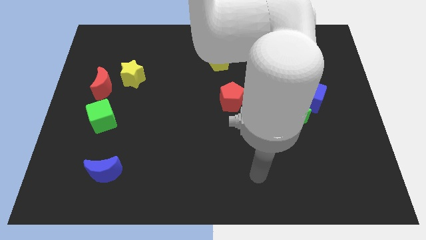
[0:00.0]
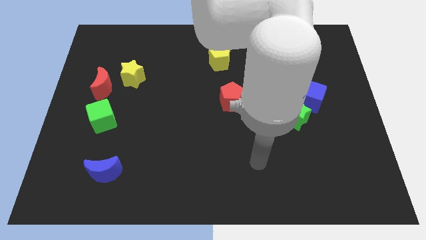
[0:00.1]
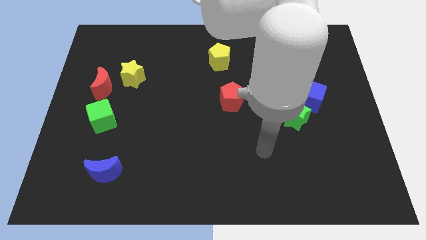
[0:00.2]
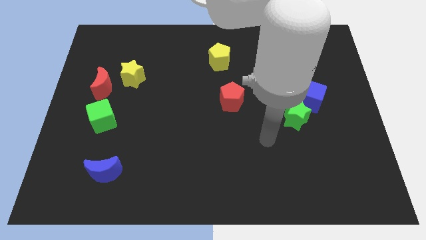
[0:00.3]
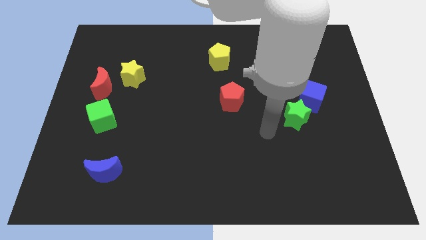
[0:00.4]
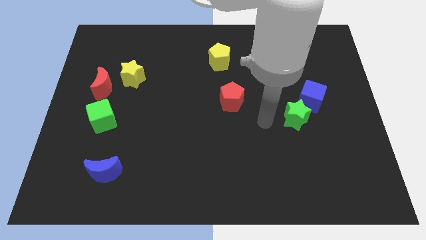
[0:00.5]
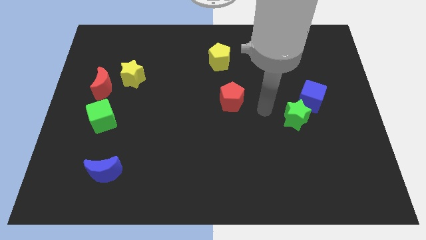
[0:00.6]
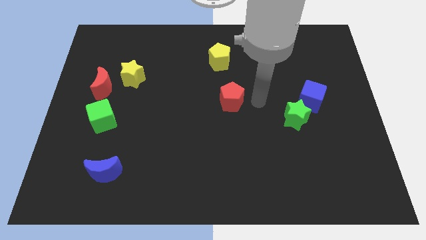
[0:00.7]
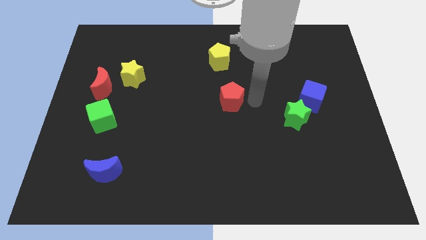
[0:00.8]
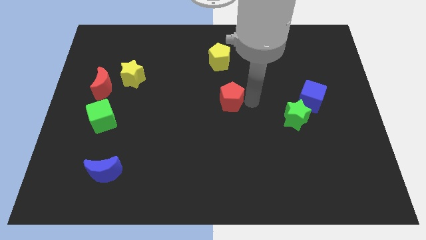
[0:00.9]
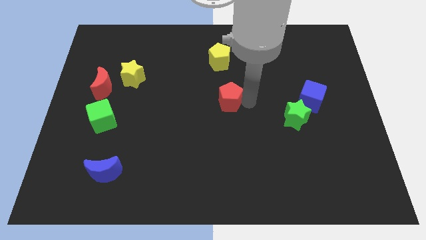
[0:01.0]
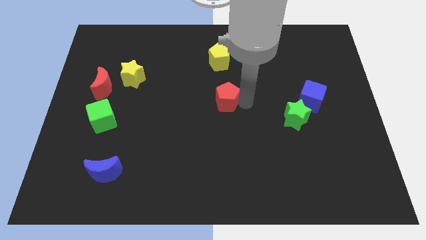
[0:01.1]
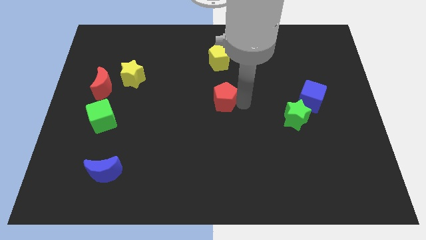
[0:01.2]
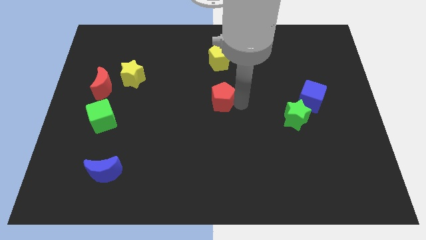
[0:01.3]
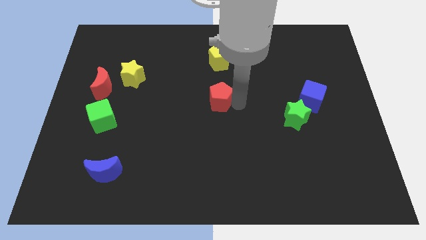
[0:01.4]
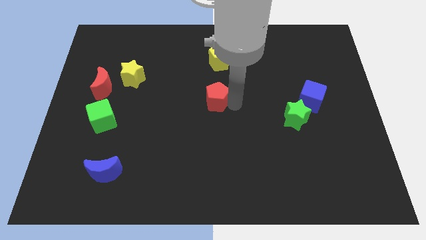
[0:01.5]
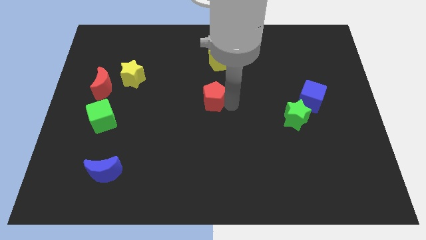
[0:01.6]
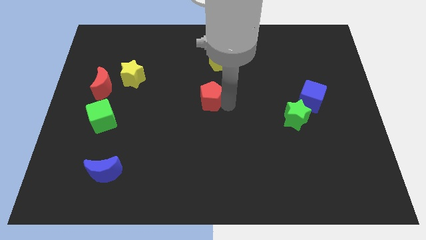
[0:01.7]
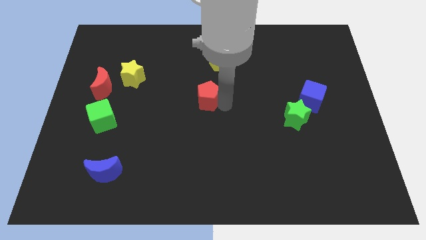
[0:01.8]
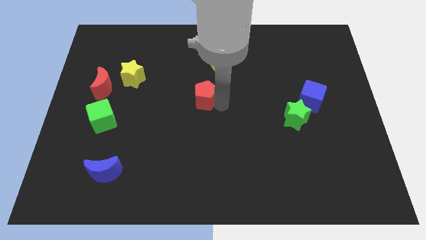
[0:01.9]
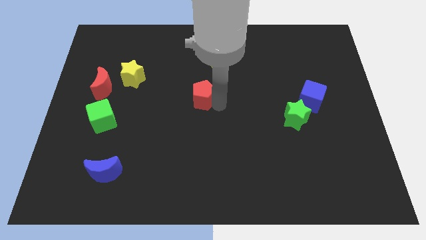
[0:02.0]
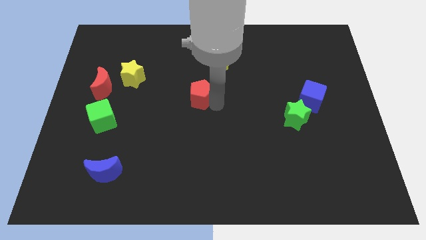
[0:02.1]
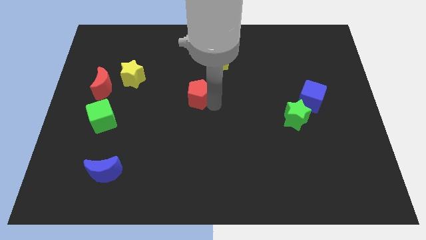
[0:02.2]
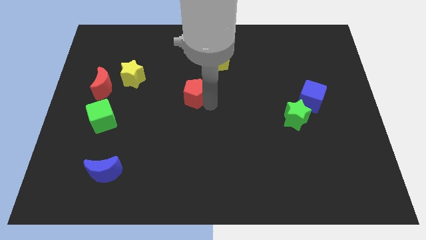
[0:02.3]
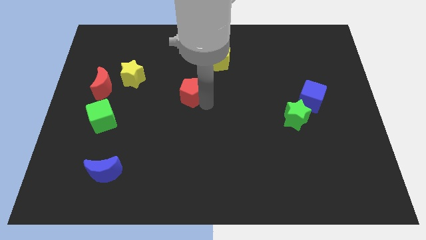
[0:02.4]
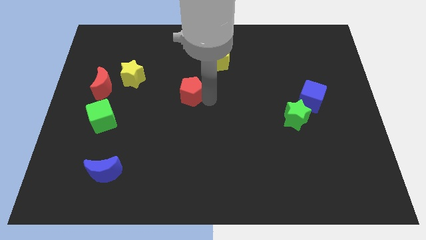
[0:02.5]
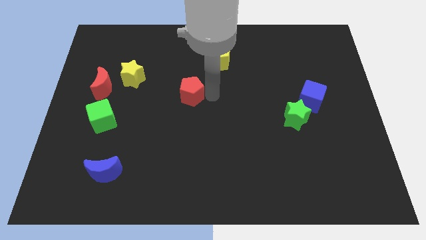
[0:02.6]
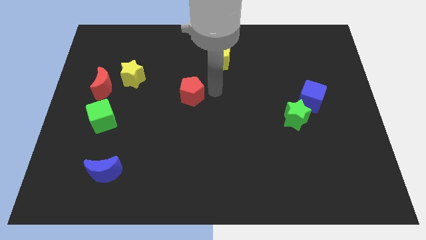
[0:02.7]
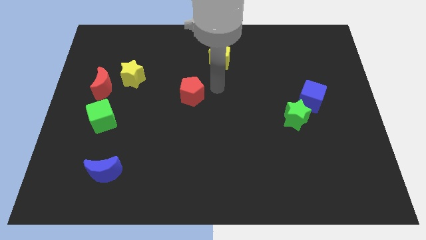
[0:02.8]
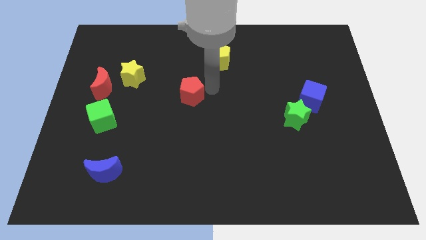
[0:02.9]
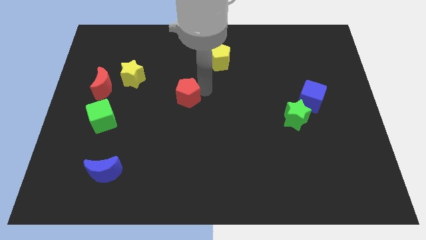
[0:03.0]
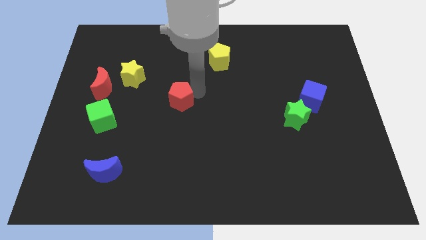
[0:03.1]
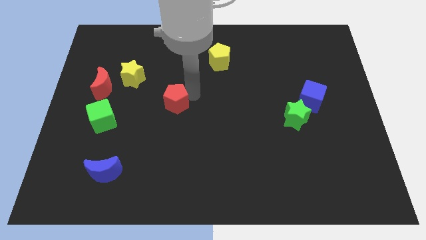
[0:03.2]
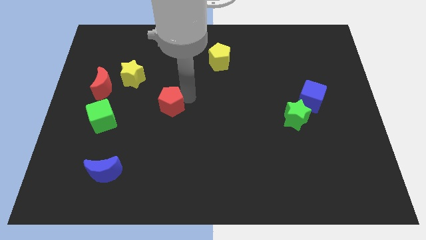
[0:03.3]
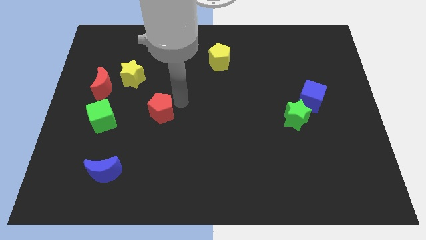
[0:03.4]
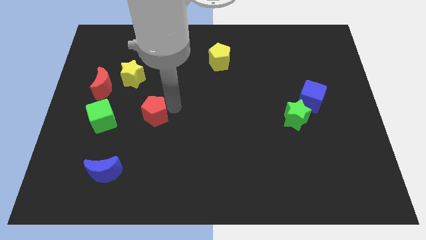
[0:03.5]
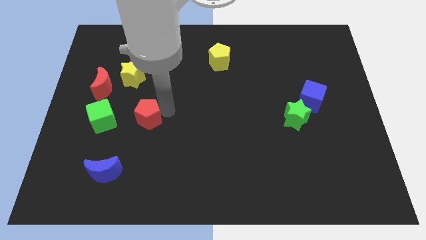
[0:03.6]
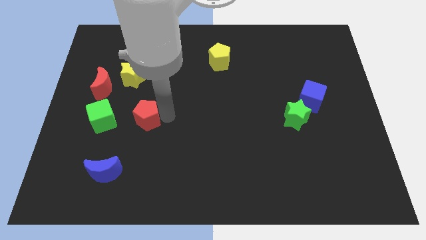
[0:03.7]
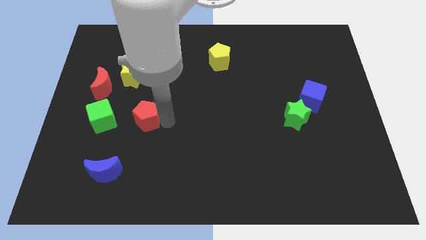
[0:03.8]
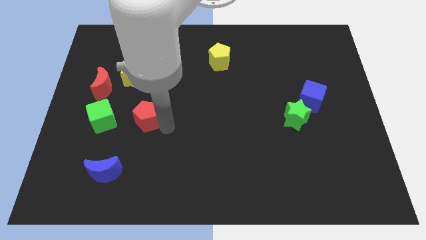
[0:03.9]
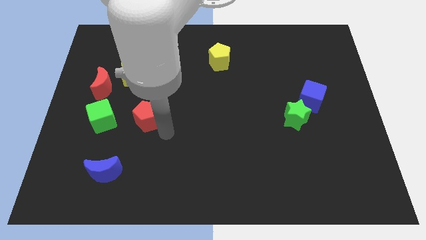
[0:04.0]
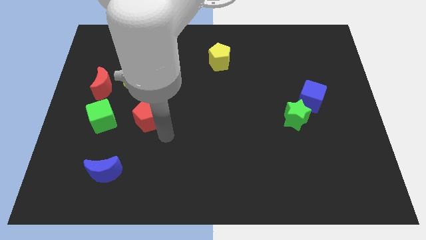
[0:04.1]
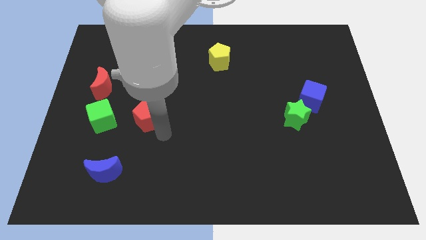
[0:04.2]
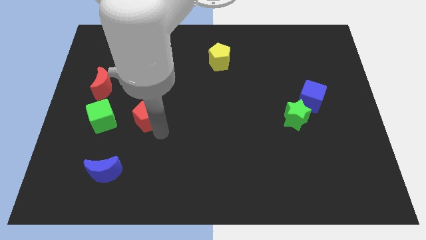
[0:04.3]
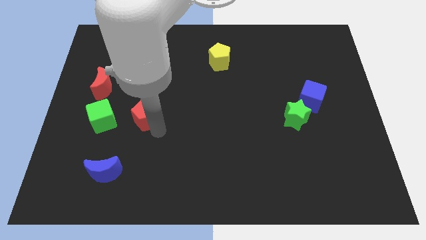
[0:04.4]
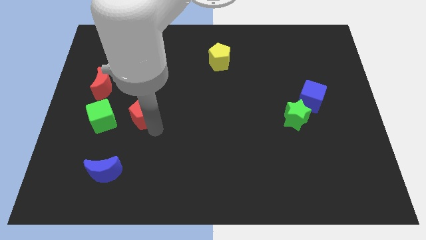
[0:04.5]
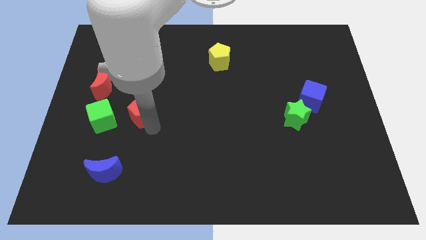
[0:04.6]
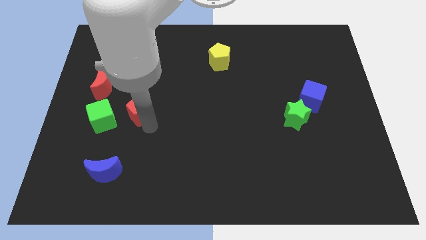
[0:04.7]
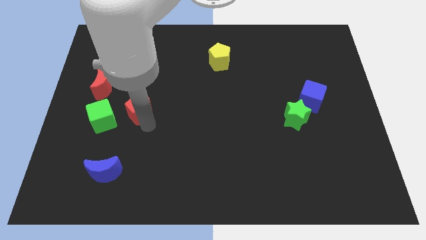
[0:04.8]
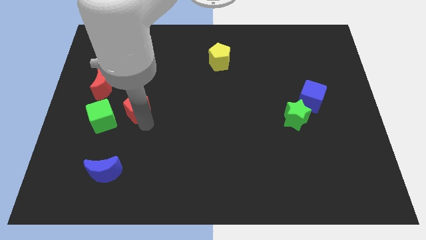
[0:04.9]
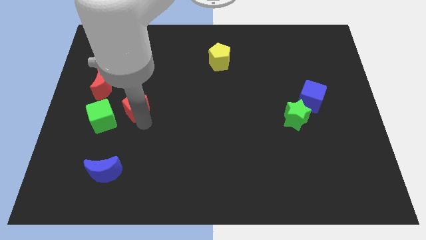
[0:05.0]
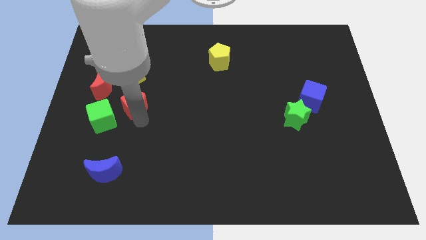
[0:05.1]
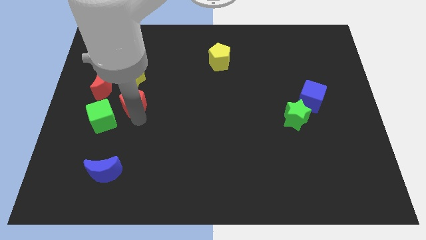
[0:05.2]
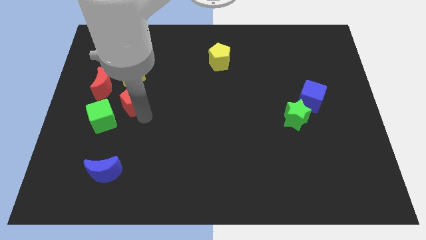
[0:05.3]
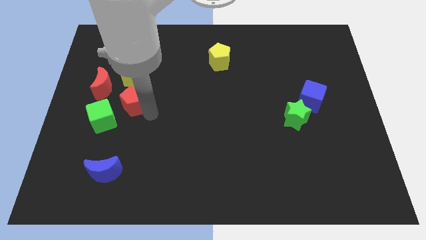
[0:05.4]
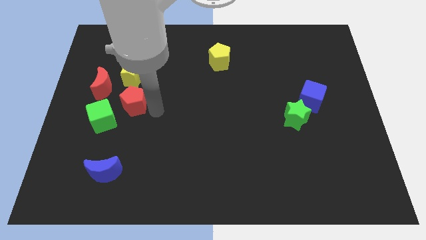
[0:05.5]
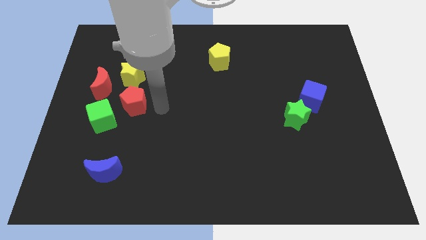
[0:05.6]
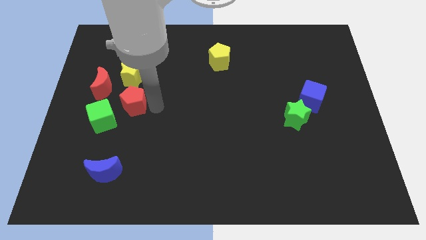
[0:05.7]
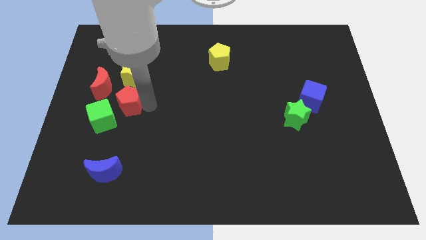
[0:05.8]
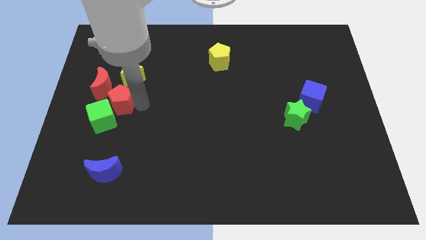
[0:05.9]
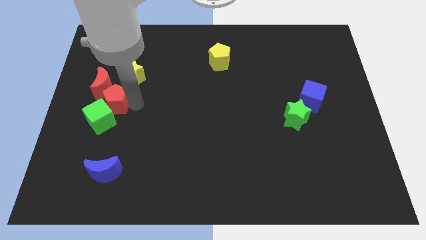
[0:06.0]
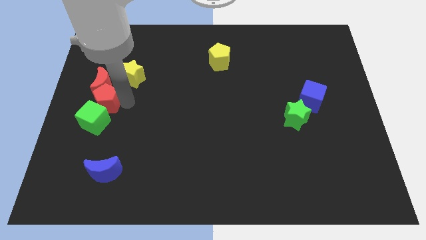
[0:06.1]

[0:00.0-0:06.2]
move the red pentagon to the left side of the board

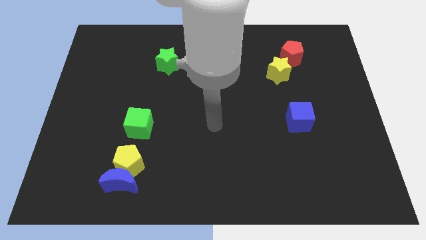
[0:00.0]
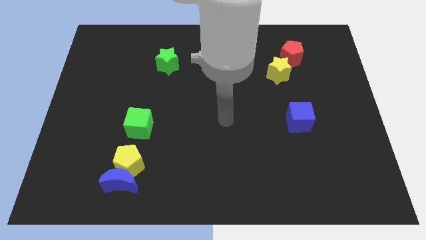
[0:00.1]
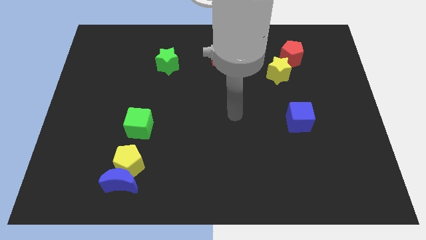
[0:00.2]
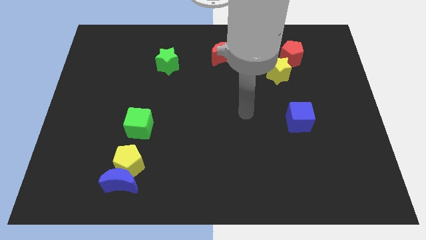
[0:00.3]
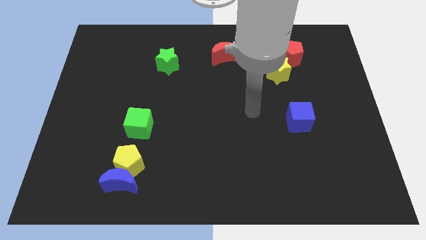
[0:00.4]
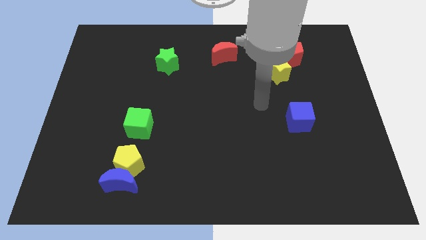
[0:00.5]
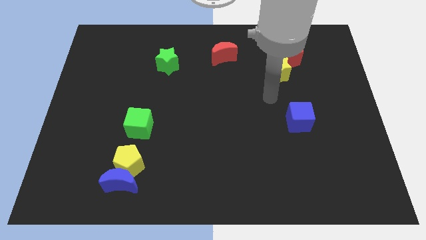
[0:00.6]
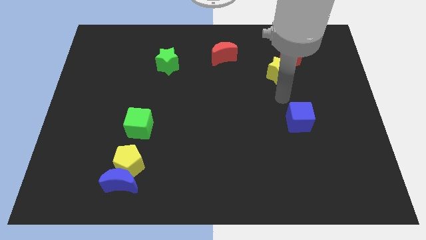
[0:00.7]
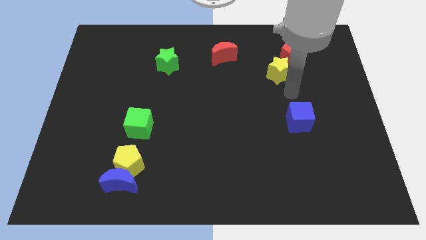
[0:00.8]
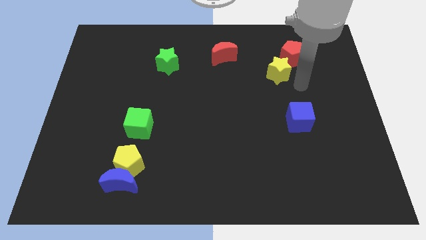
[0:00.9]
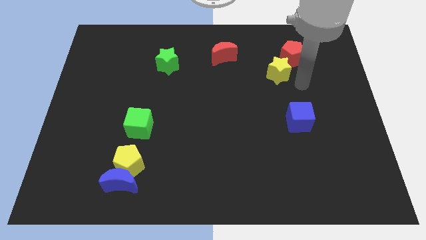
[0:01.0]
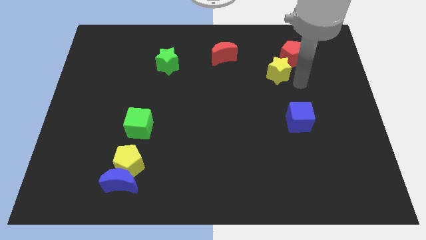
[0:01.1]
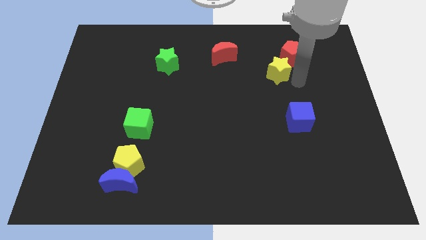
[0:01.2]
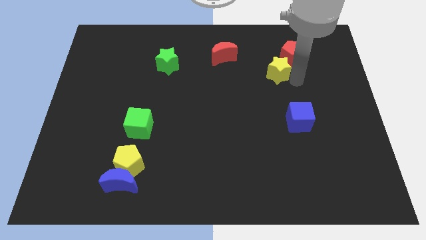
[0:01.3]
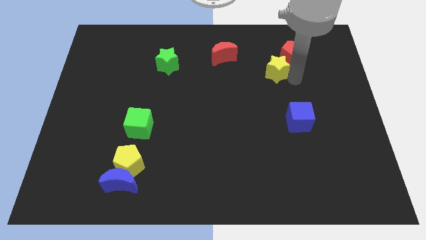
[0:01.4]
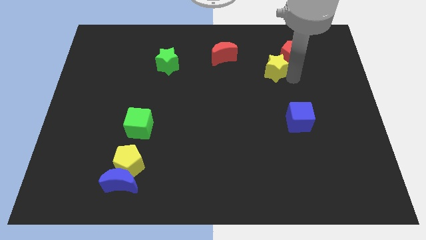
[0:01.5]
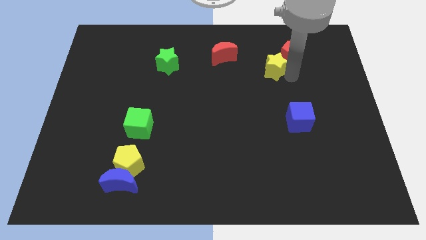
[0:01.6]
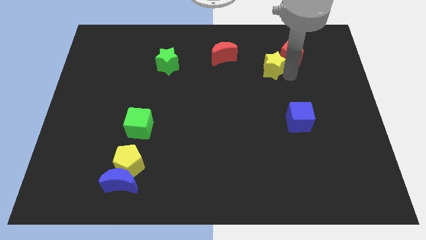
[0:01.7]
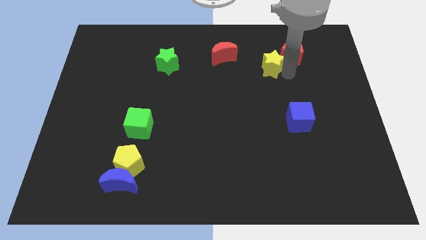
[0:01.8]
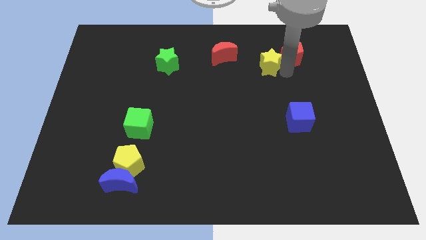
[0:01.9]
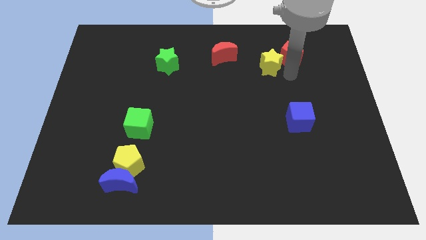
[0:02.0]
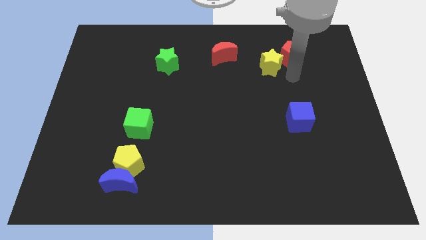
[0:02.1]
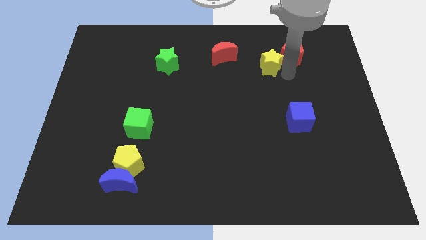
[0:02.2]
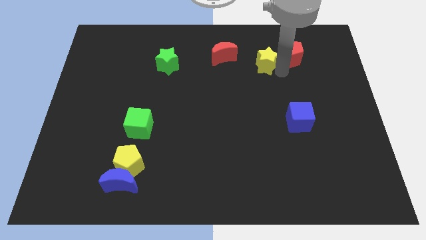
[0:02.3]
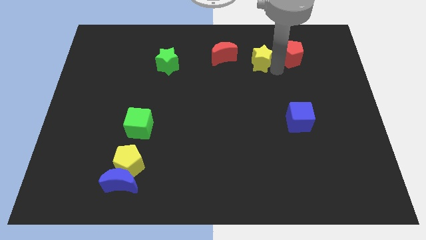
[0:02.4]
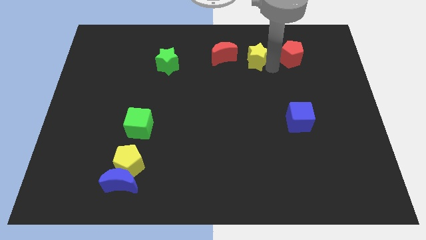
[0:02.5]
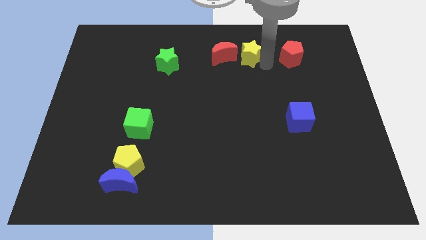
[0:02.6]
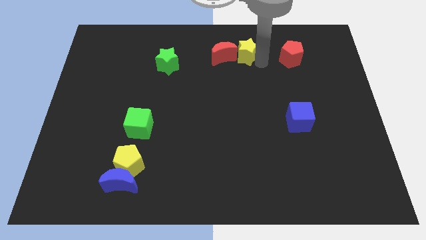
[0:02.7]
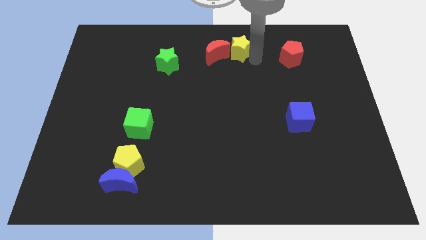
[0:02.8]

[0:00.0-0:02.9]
slide the yellow star to the top side
